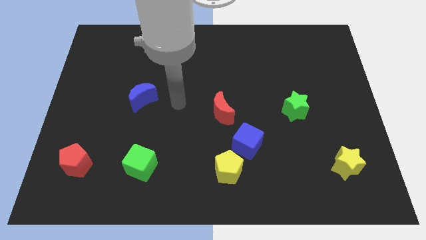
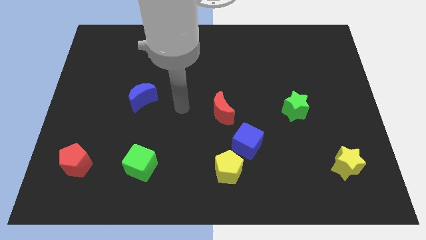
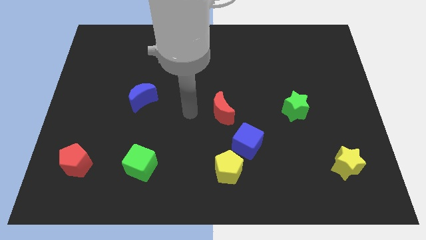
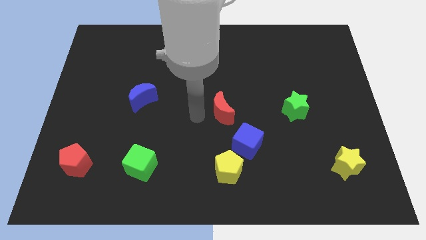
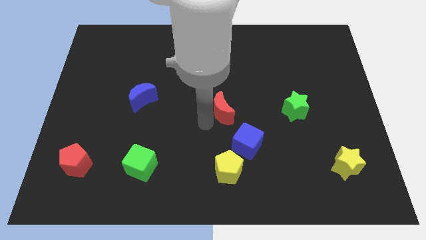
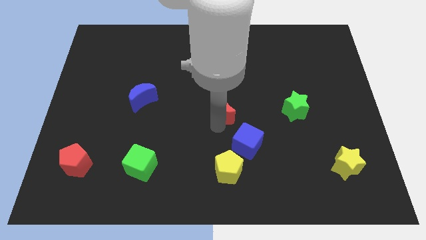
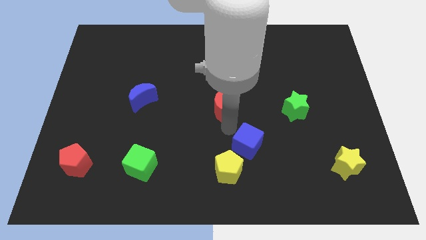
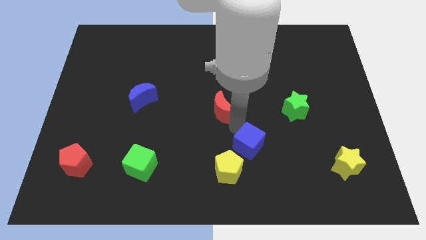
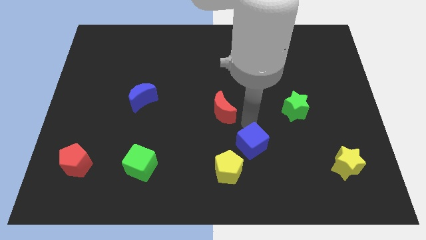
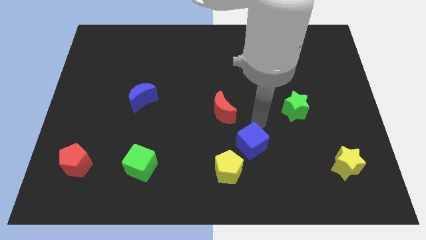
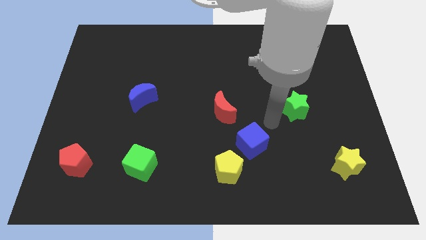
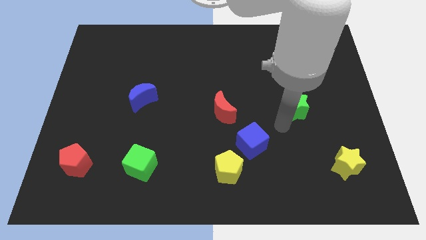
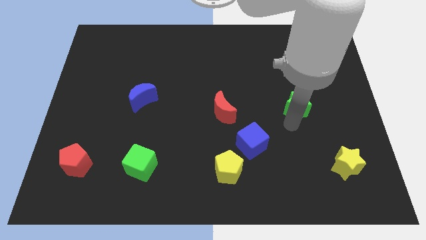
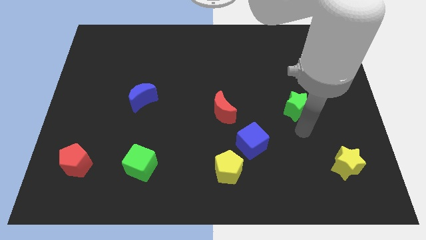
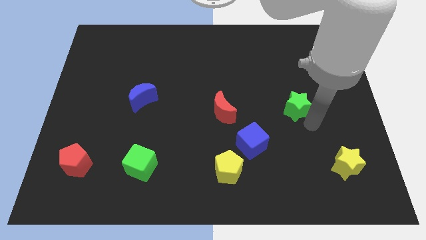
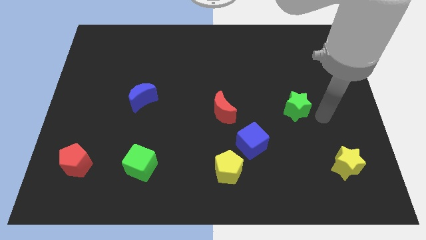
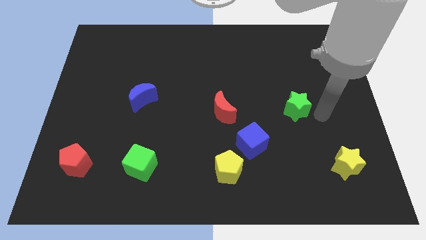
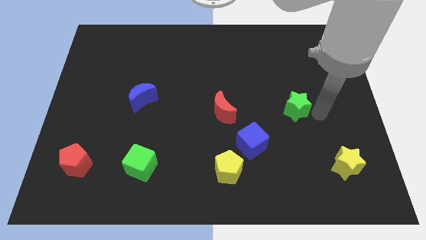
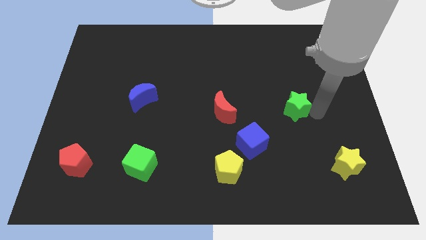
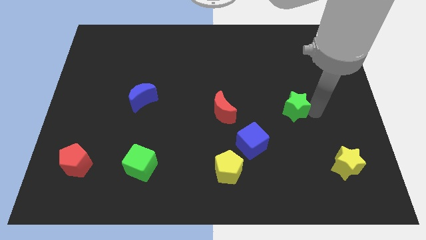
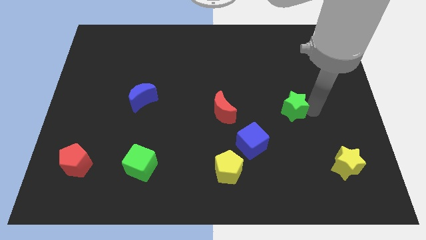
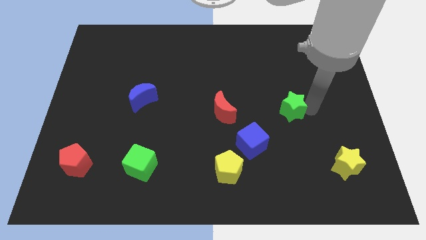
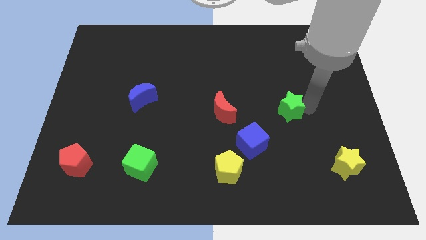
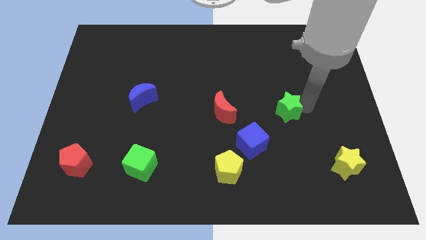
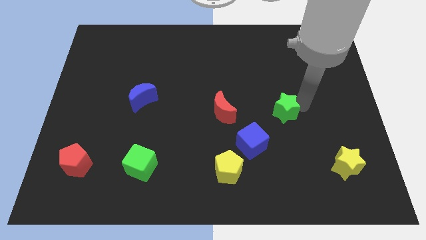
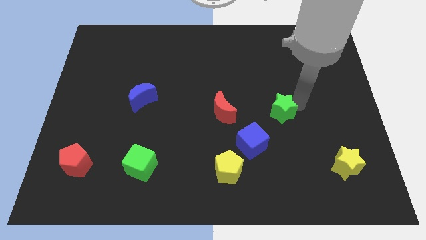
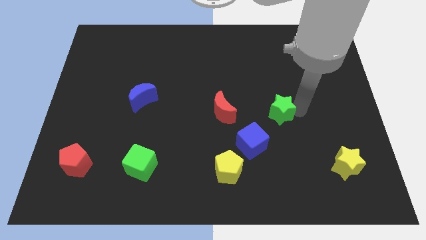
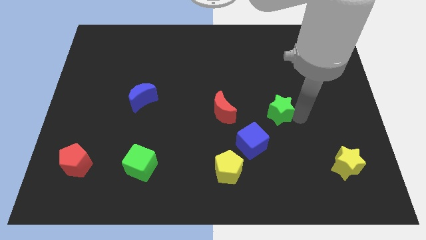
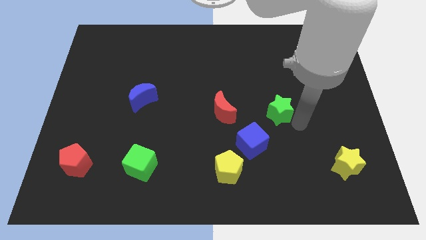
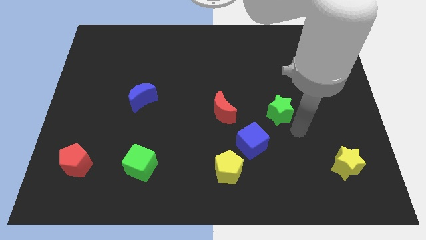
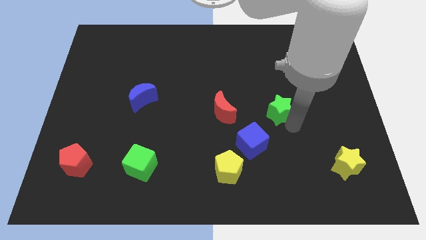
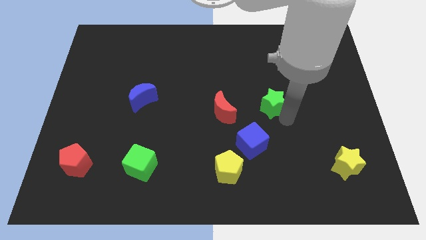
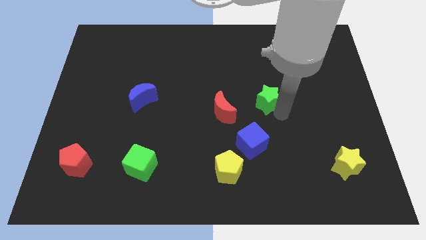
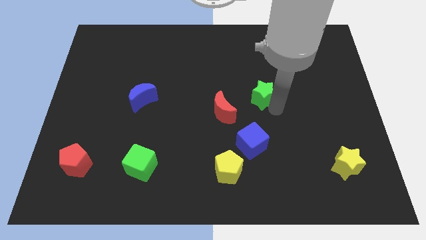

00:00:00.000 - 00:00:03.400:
slightly slide the green star up and left diagonally

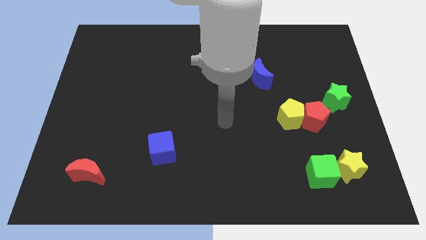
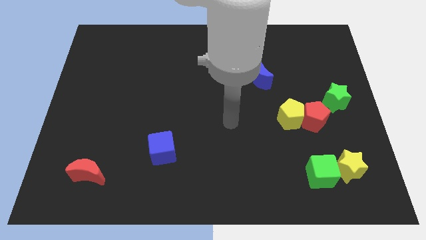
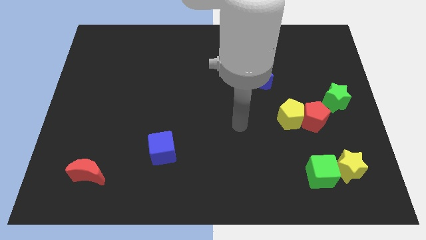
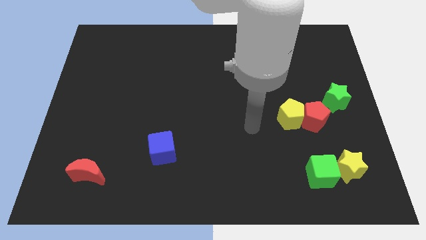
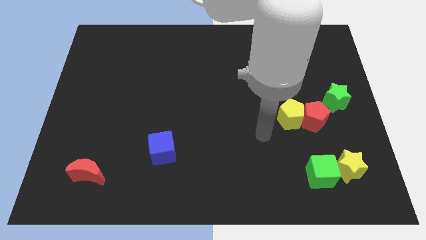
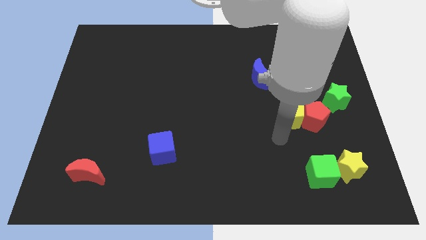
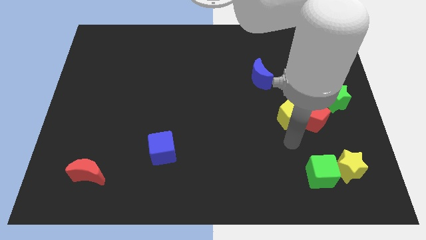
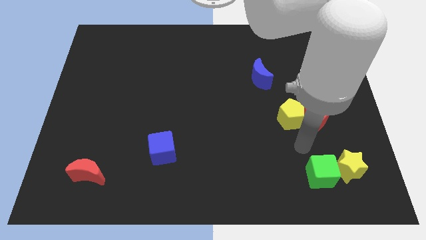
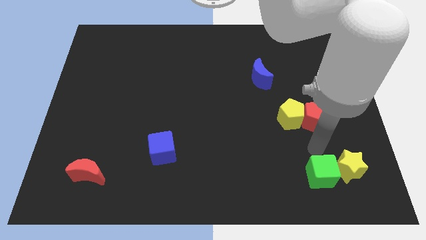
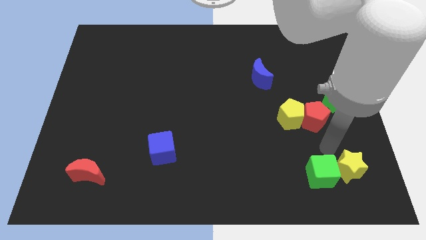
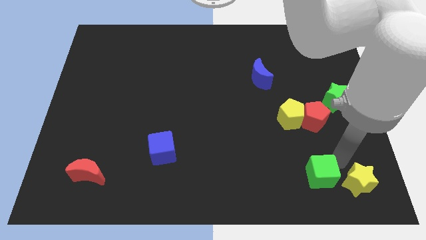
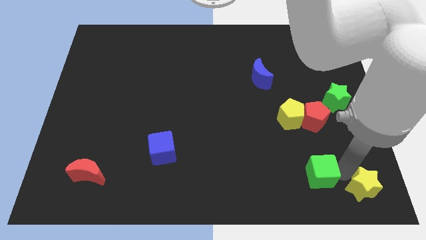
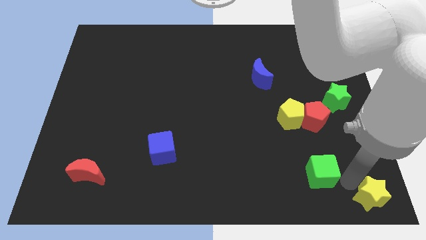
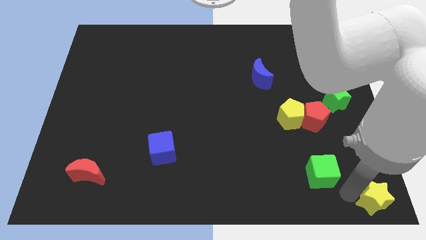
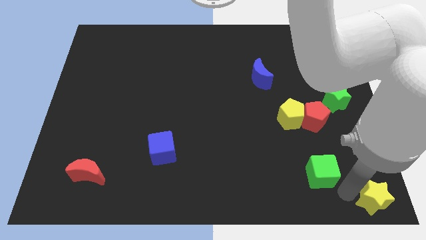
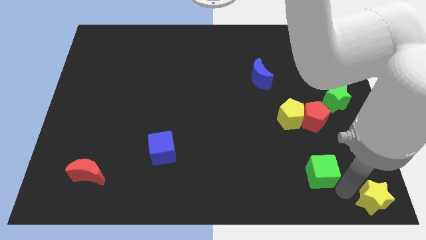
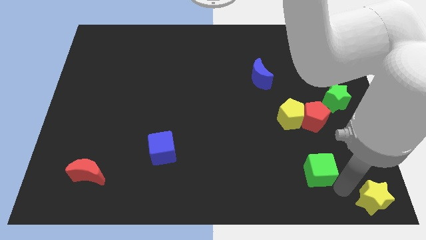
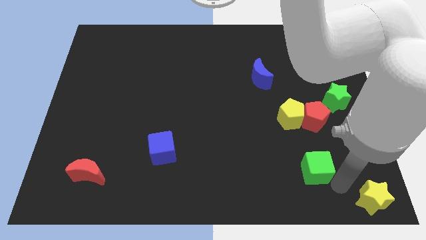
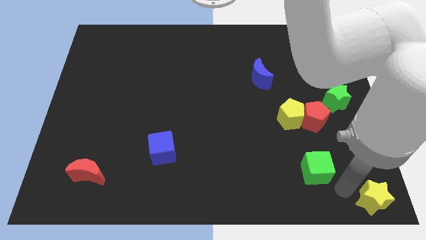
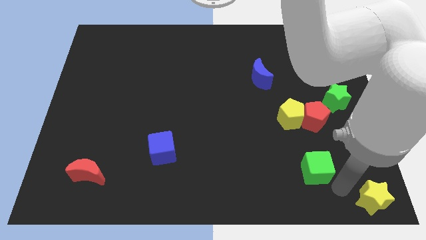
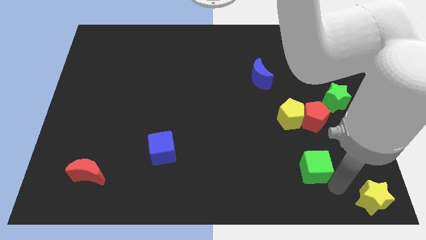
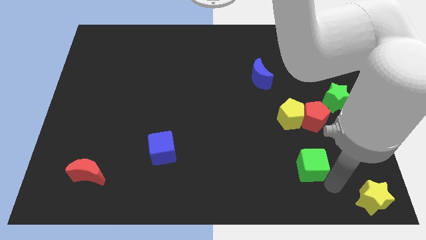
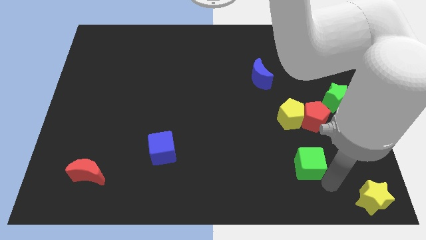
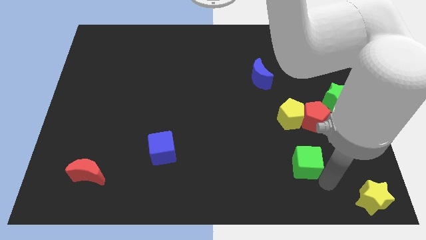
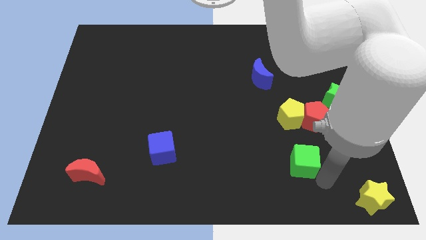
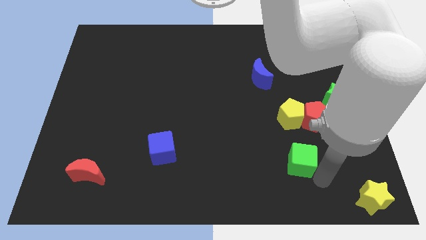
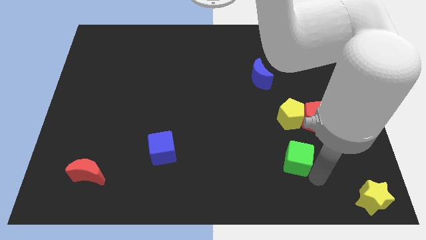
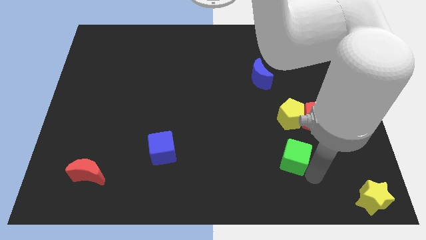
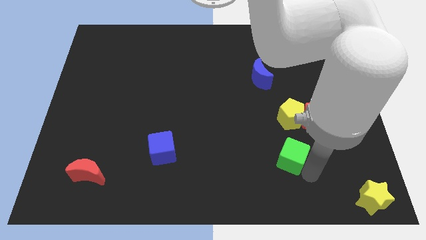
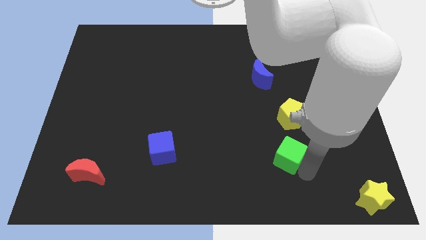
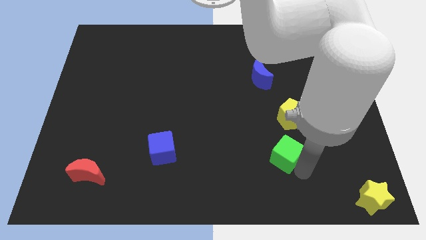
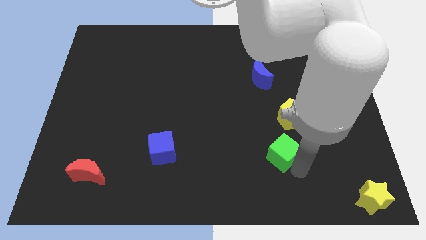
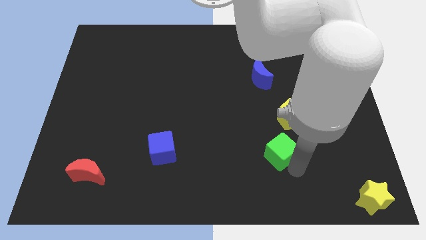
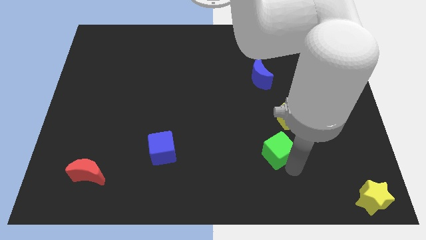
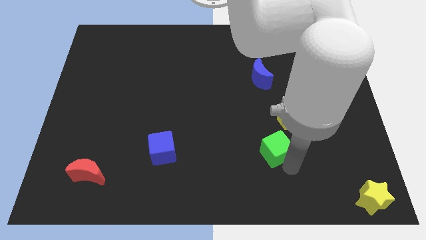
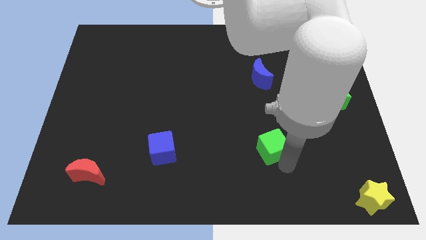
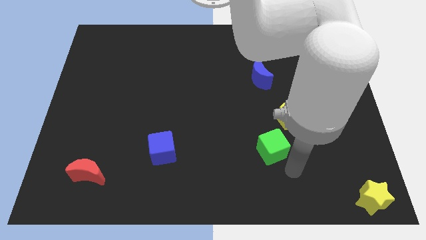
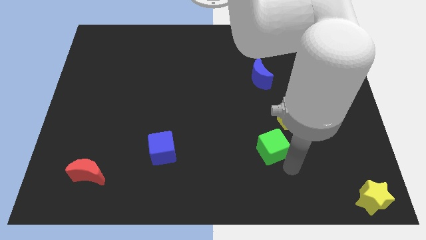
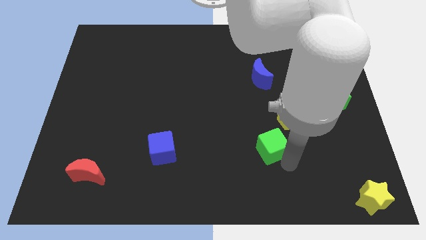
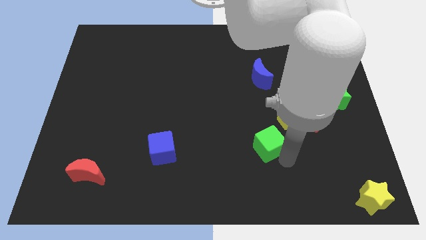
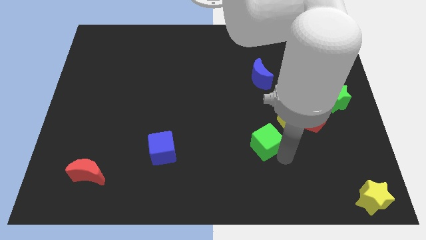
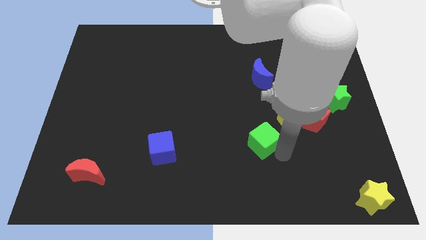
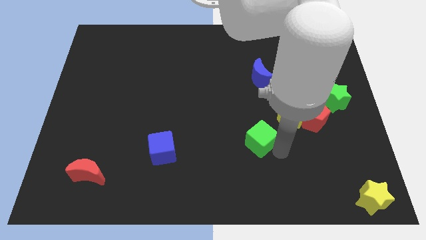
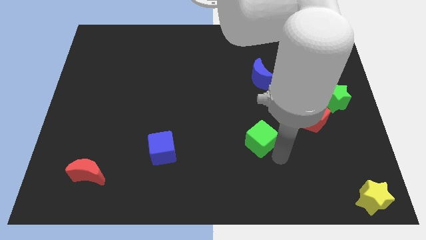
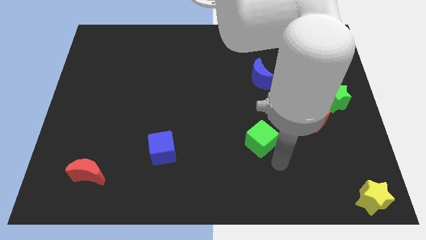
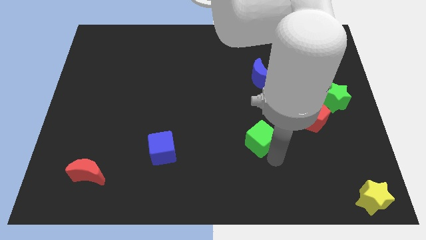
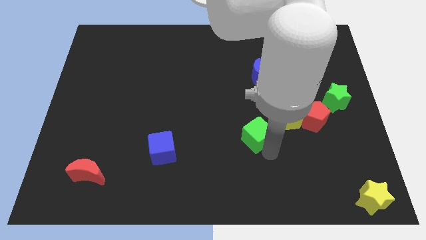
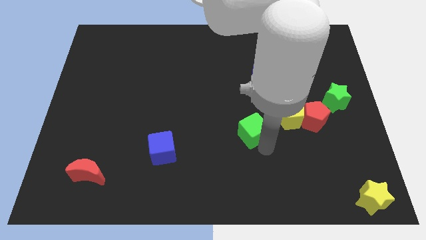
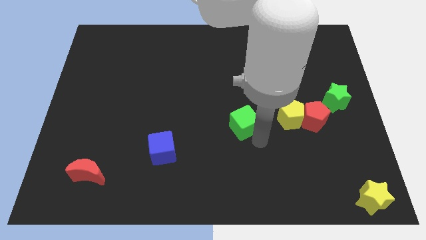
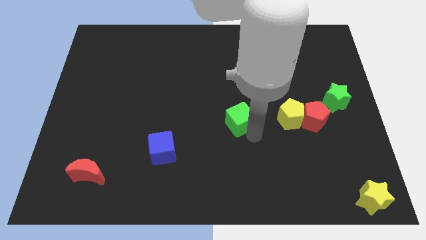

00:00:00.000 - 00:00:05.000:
push the green cube upwards and to the left
